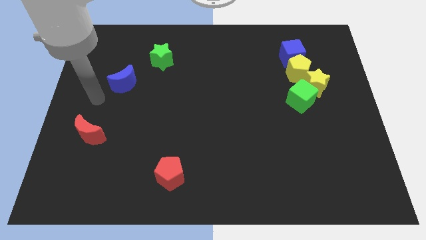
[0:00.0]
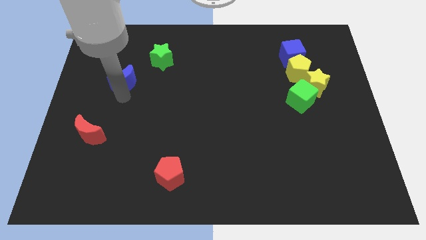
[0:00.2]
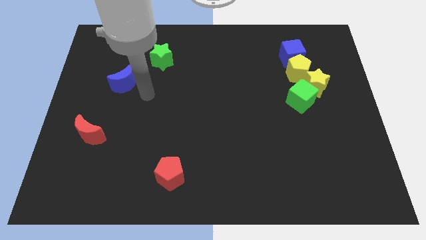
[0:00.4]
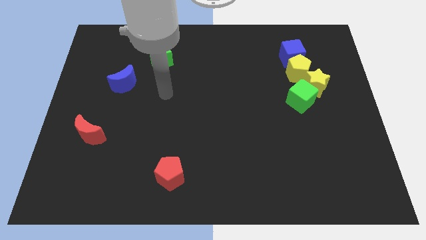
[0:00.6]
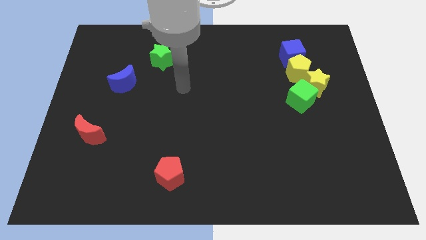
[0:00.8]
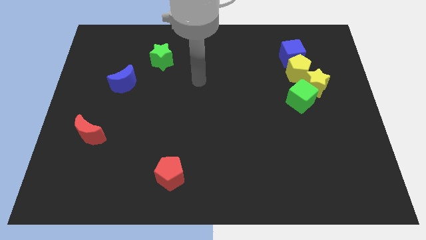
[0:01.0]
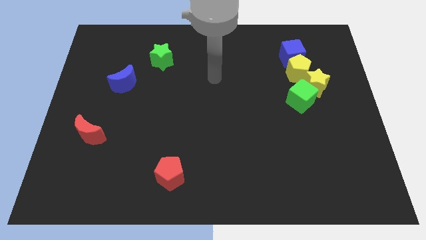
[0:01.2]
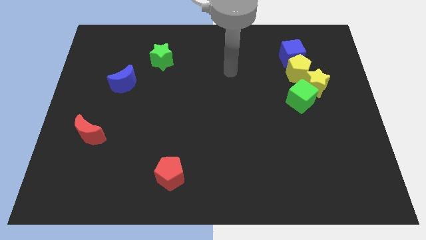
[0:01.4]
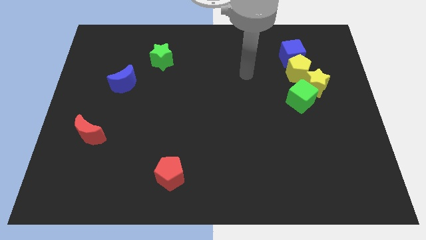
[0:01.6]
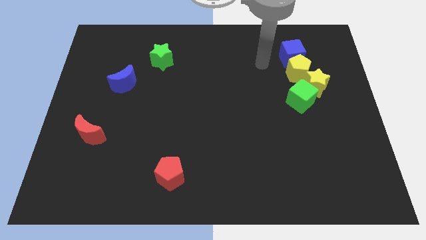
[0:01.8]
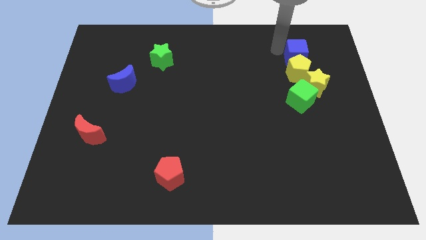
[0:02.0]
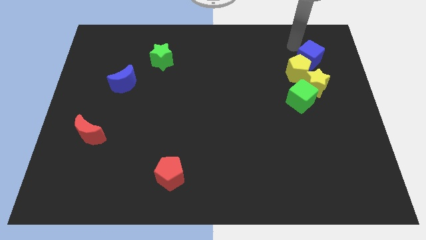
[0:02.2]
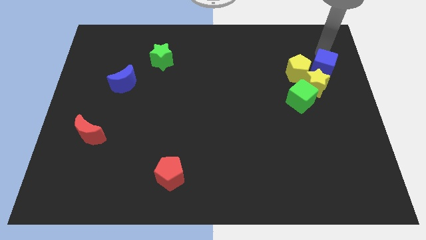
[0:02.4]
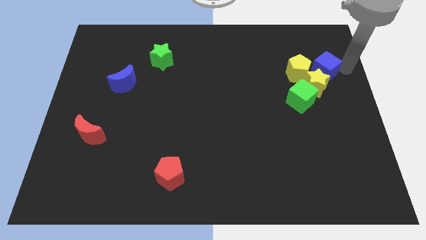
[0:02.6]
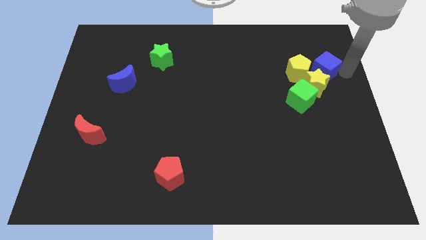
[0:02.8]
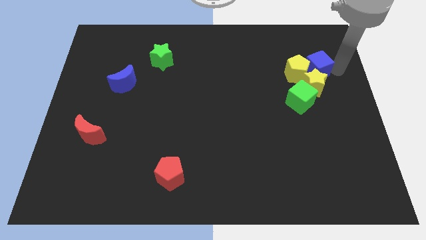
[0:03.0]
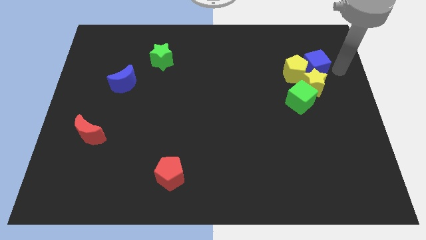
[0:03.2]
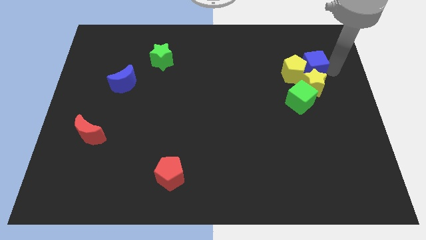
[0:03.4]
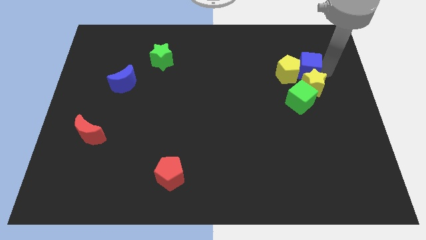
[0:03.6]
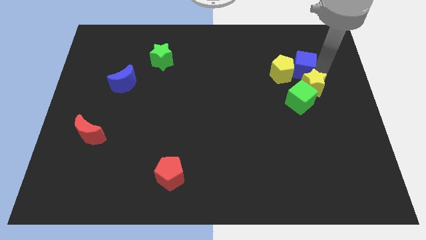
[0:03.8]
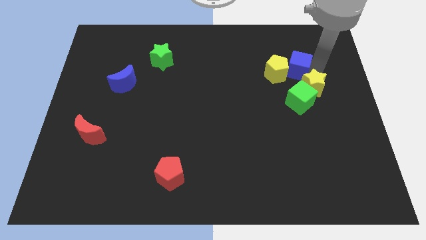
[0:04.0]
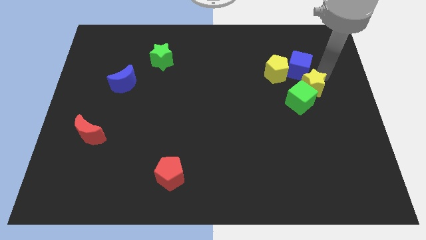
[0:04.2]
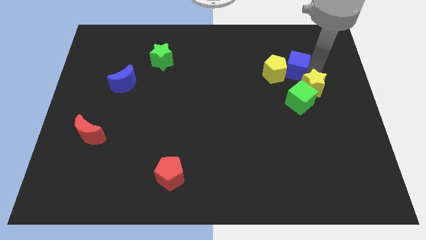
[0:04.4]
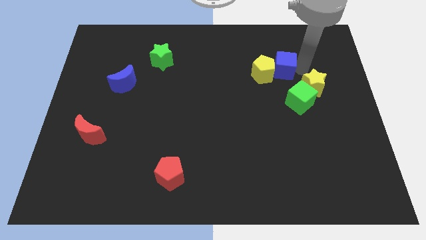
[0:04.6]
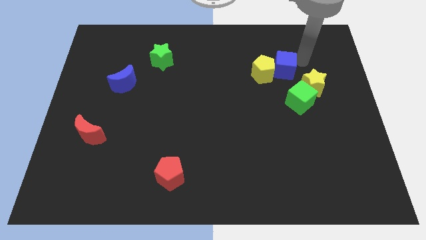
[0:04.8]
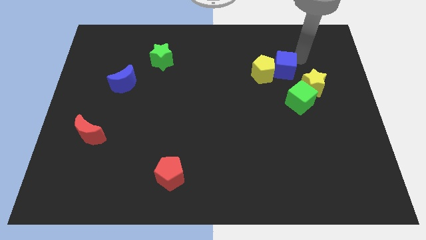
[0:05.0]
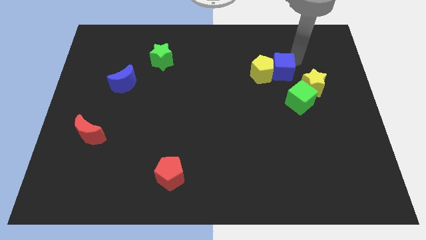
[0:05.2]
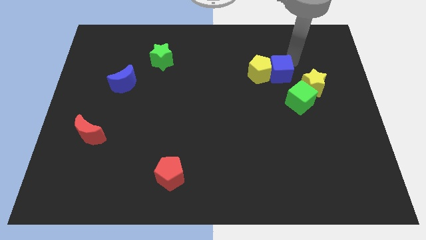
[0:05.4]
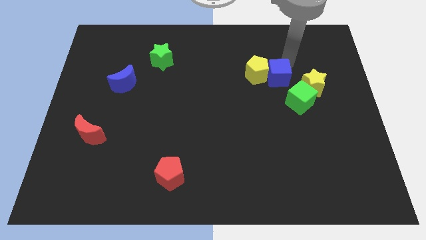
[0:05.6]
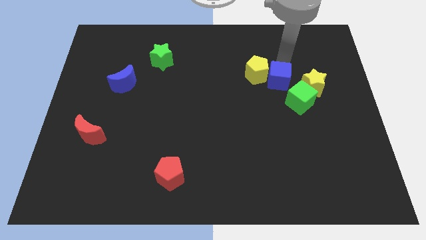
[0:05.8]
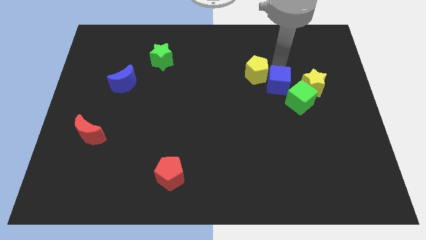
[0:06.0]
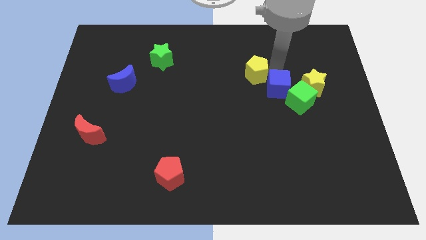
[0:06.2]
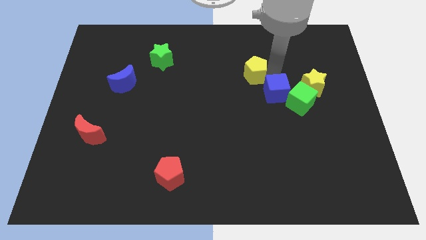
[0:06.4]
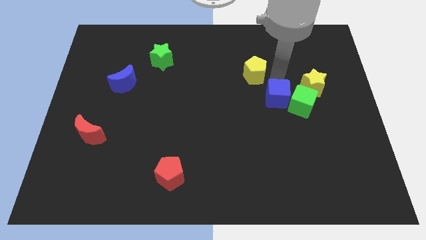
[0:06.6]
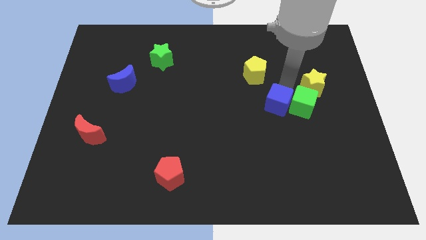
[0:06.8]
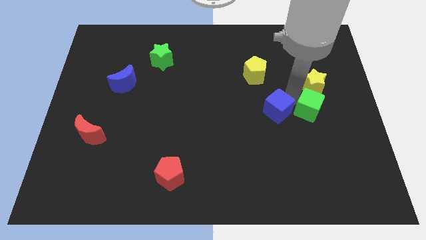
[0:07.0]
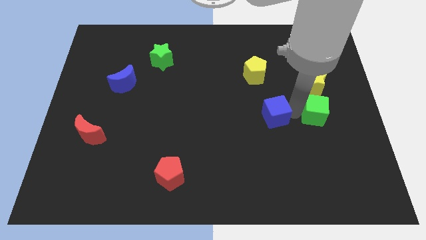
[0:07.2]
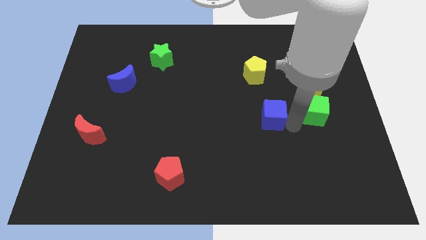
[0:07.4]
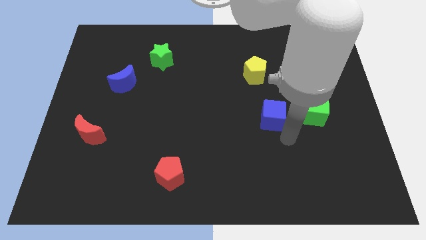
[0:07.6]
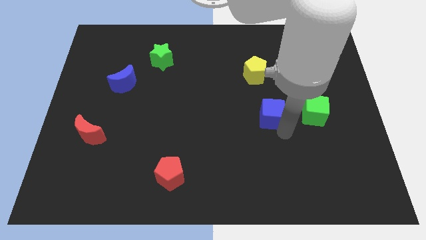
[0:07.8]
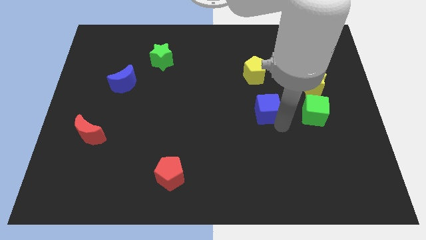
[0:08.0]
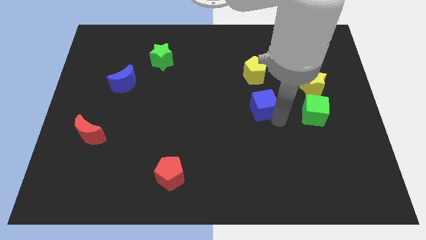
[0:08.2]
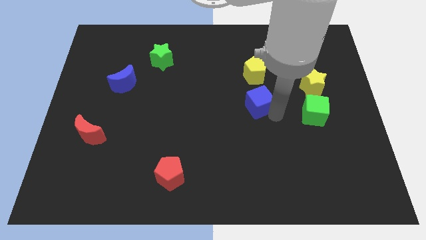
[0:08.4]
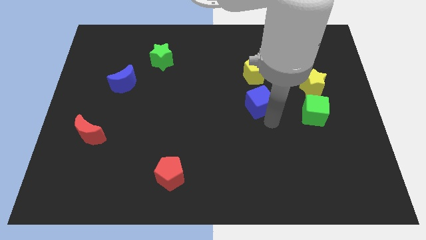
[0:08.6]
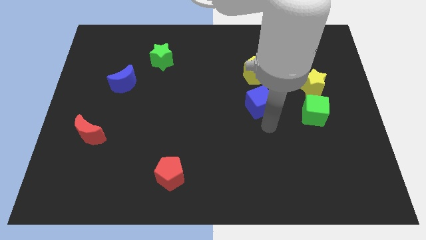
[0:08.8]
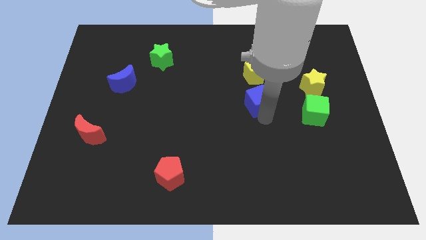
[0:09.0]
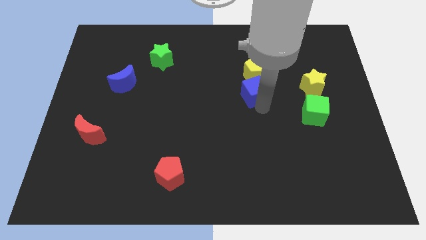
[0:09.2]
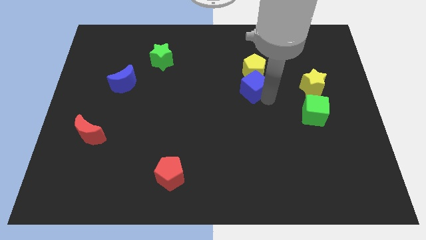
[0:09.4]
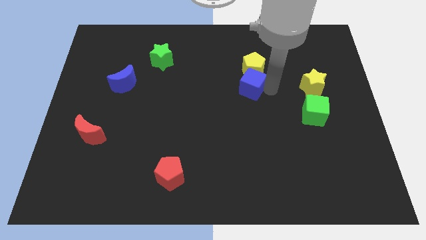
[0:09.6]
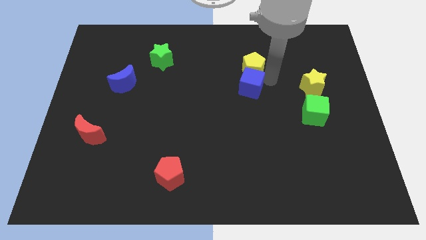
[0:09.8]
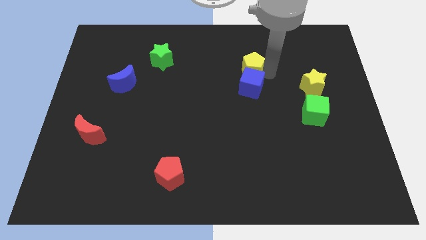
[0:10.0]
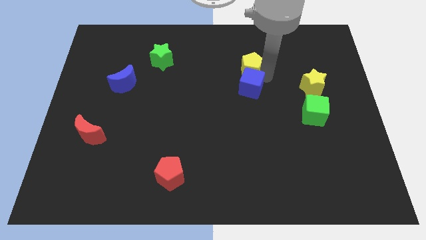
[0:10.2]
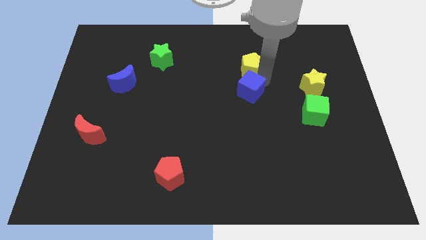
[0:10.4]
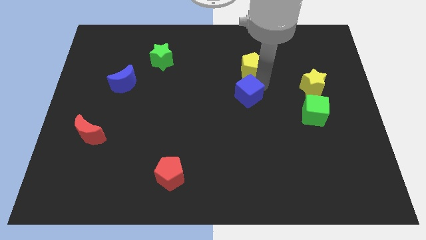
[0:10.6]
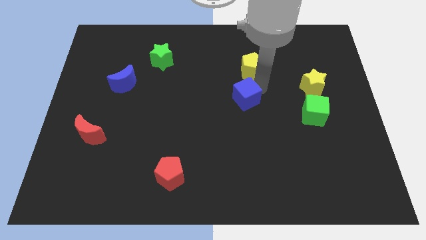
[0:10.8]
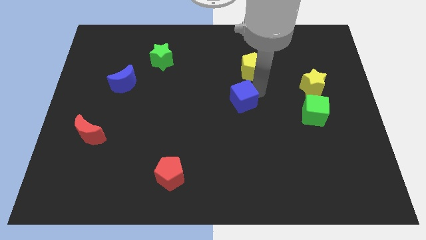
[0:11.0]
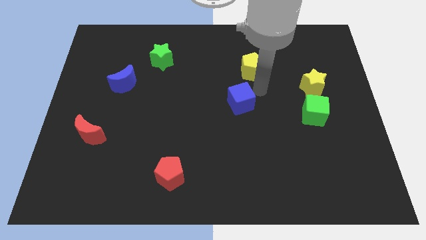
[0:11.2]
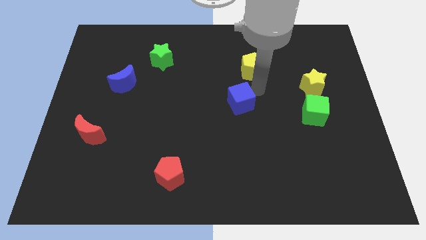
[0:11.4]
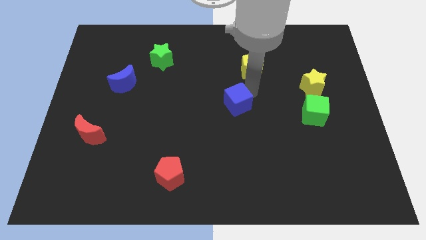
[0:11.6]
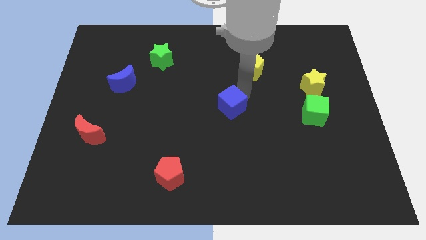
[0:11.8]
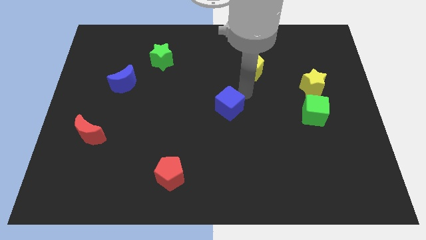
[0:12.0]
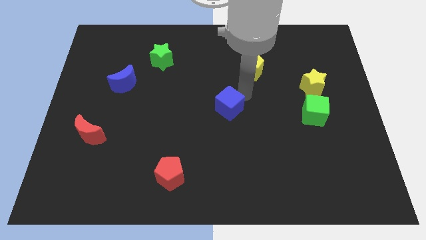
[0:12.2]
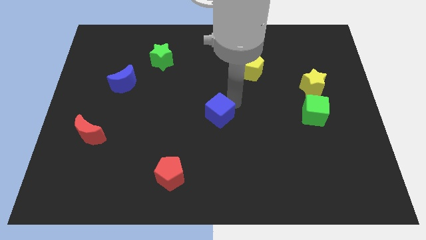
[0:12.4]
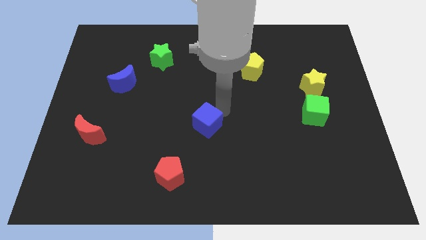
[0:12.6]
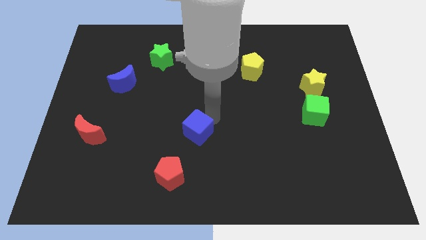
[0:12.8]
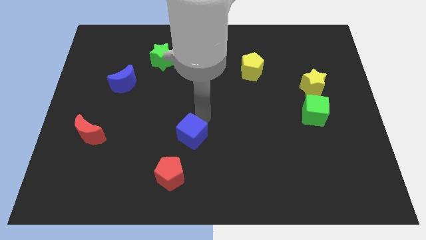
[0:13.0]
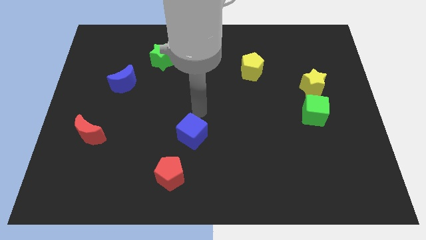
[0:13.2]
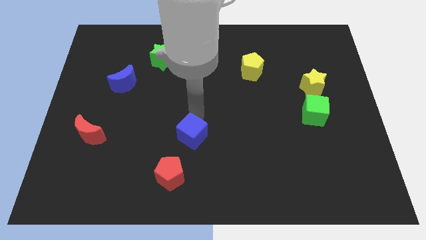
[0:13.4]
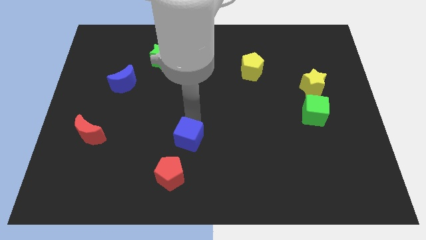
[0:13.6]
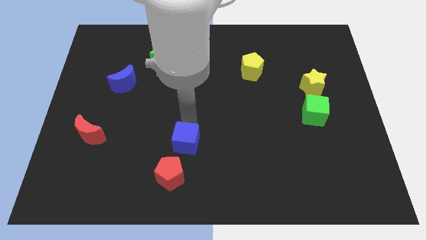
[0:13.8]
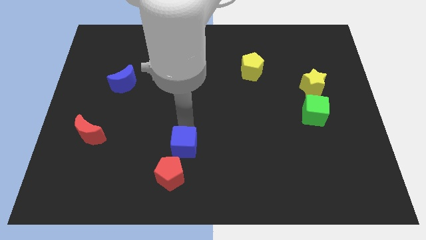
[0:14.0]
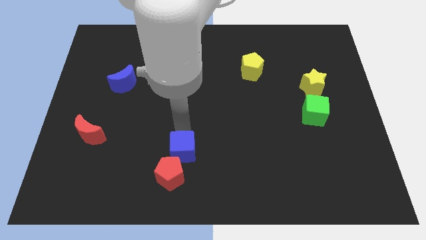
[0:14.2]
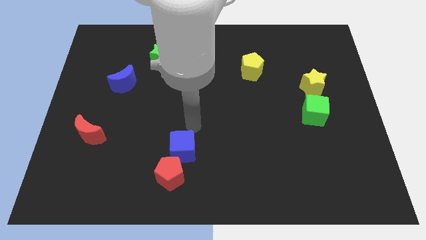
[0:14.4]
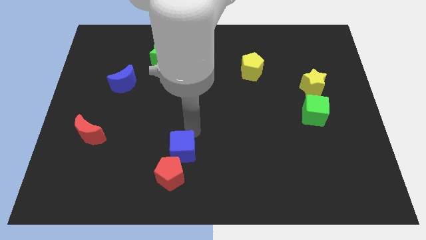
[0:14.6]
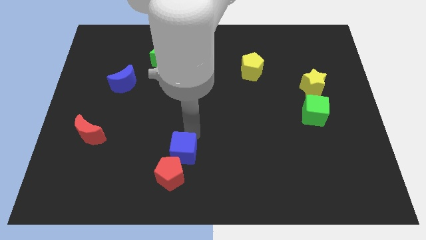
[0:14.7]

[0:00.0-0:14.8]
move the blue cube to the red pentagon
